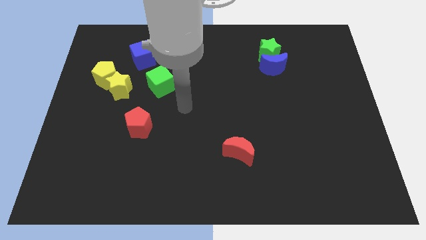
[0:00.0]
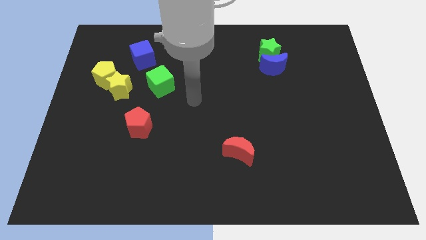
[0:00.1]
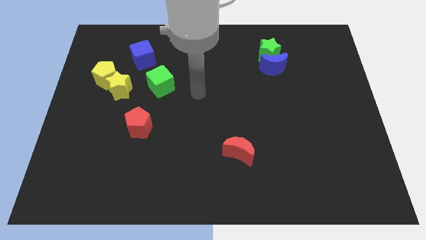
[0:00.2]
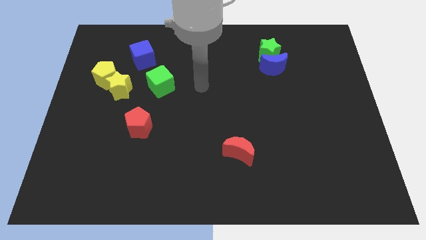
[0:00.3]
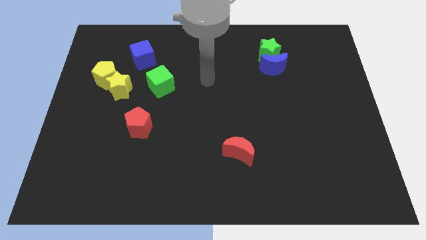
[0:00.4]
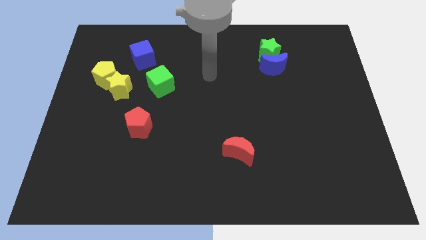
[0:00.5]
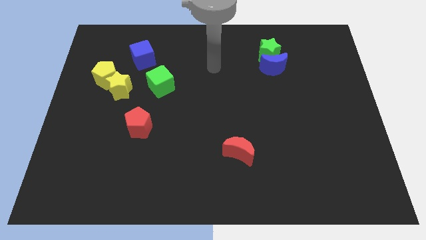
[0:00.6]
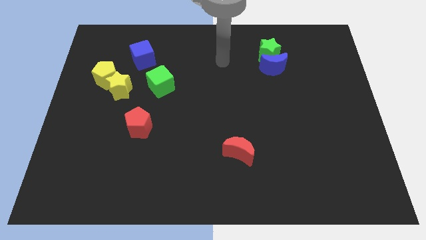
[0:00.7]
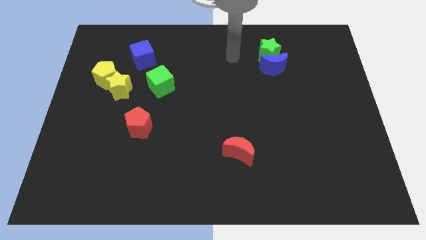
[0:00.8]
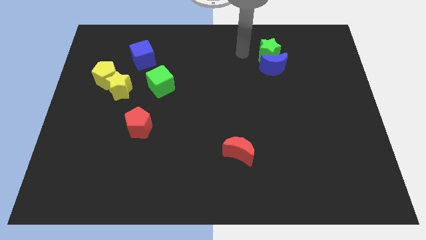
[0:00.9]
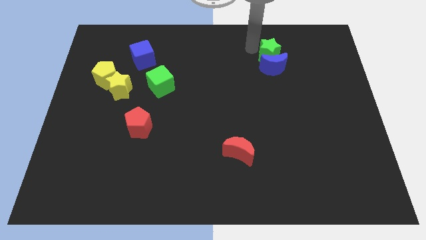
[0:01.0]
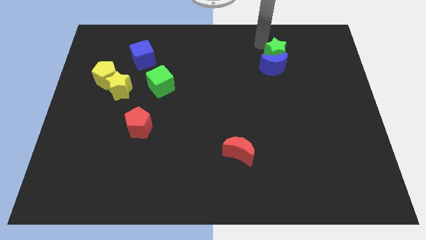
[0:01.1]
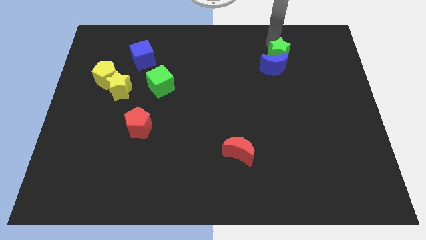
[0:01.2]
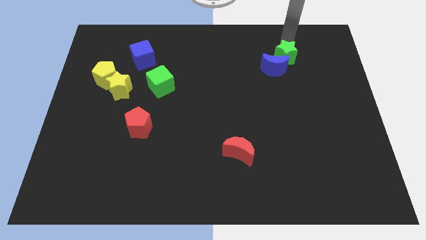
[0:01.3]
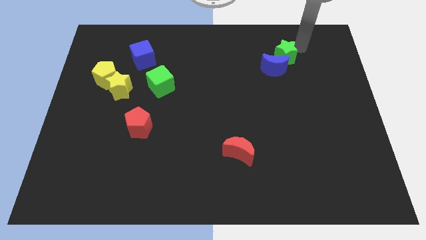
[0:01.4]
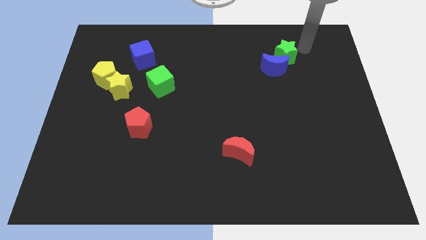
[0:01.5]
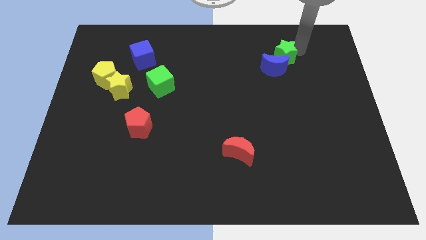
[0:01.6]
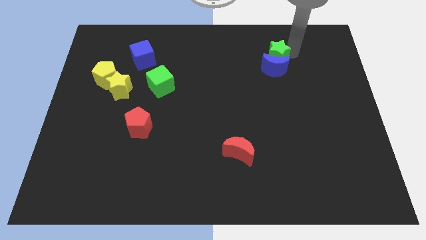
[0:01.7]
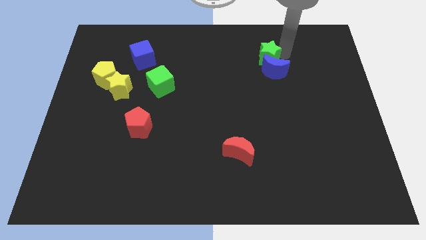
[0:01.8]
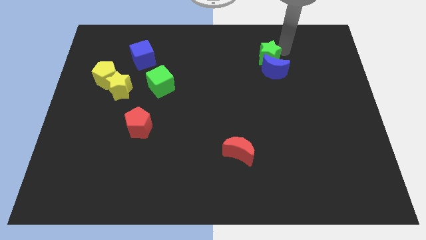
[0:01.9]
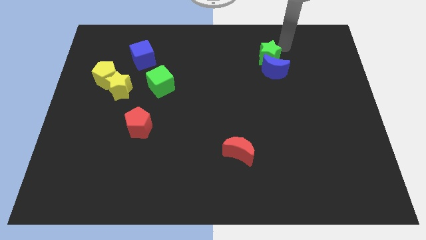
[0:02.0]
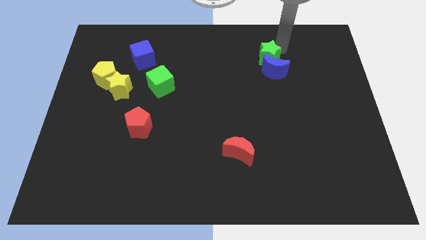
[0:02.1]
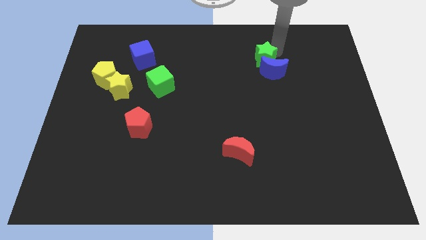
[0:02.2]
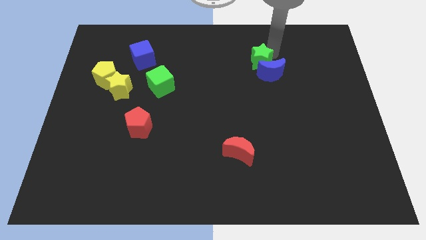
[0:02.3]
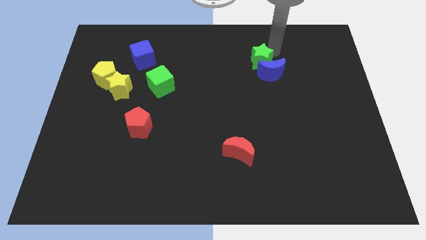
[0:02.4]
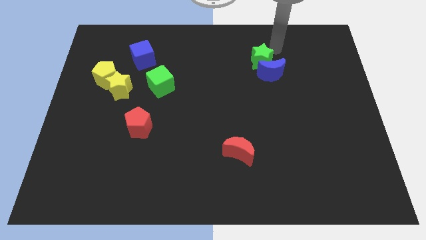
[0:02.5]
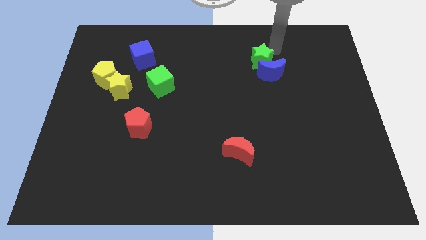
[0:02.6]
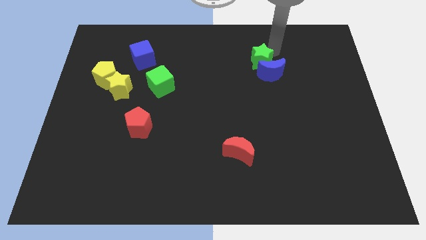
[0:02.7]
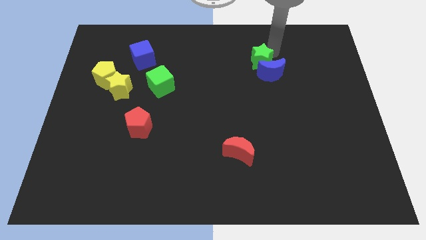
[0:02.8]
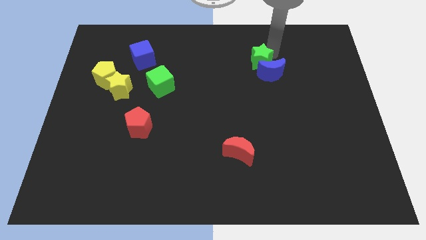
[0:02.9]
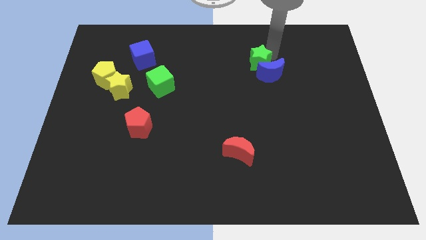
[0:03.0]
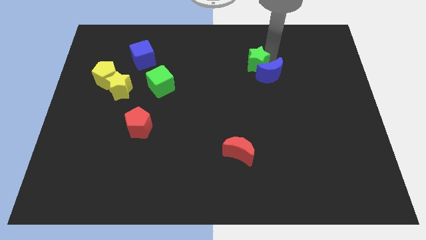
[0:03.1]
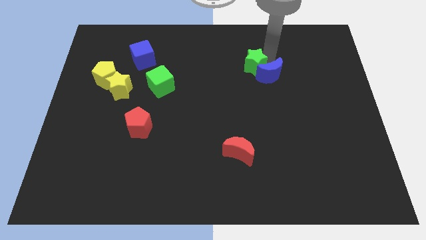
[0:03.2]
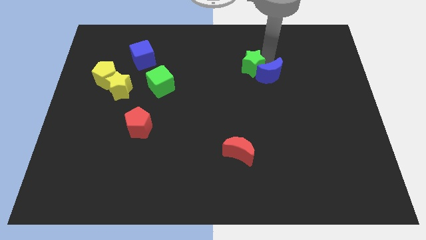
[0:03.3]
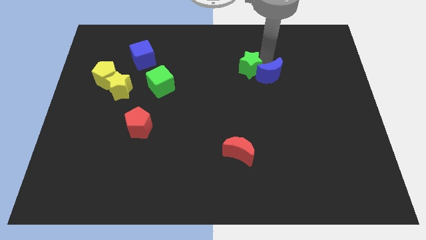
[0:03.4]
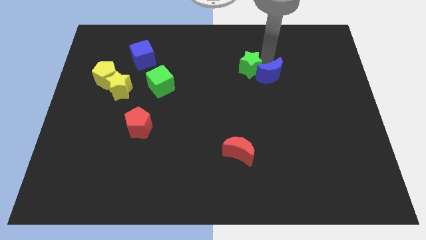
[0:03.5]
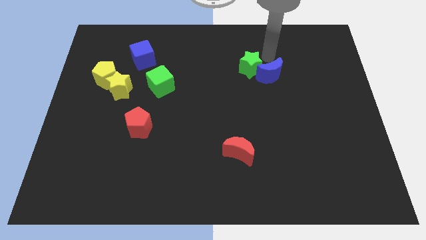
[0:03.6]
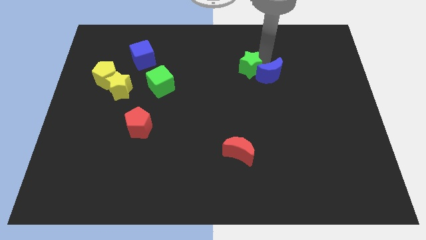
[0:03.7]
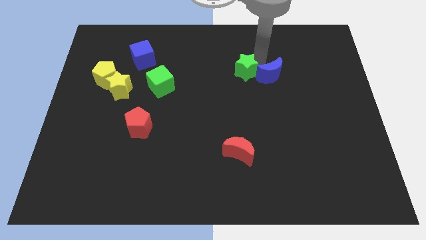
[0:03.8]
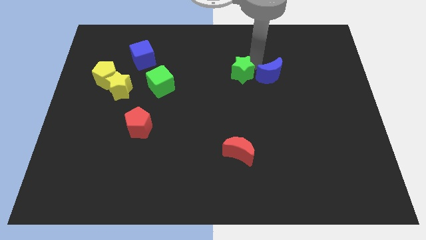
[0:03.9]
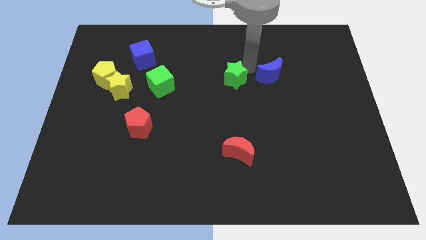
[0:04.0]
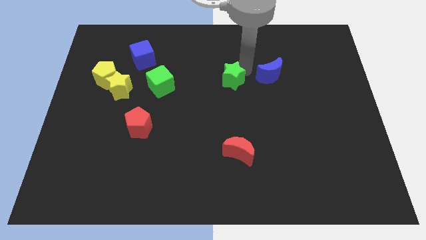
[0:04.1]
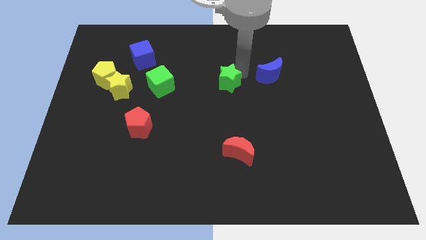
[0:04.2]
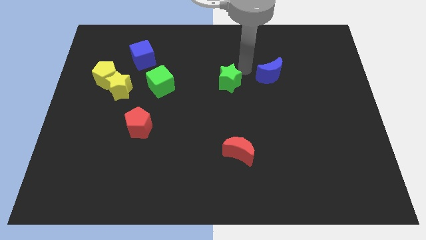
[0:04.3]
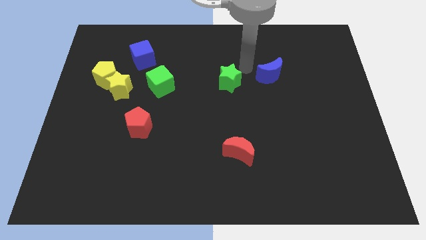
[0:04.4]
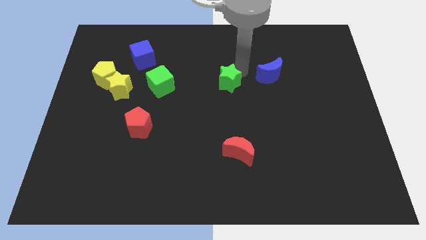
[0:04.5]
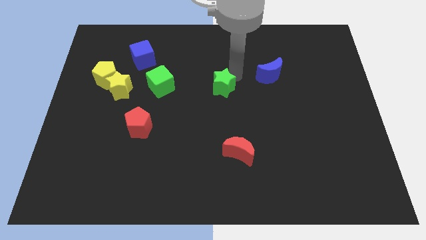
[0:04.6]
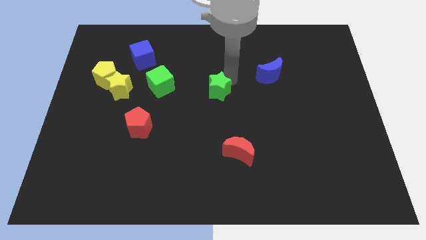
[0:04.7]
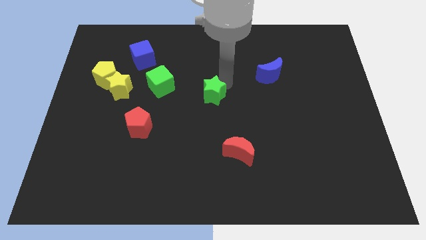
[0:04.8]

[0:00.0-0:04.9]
move the green star diagonally down and to the left

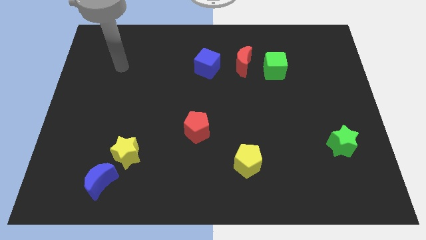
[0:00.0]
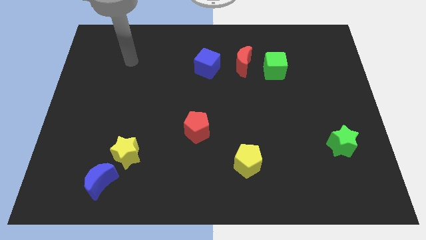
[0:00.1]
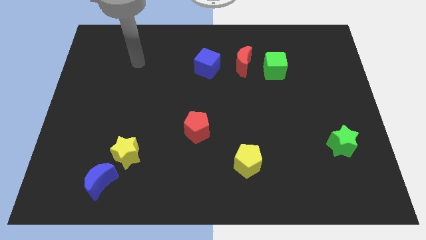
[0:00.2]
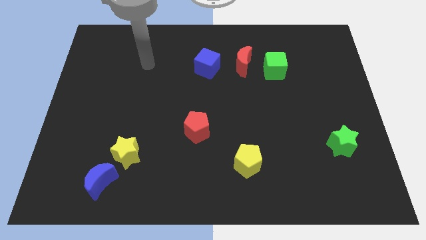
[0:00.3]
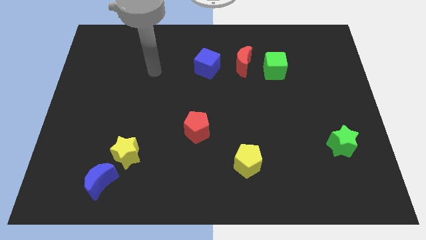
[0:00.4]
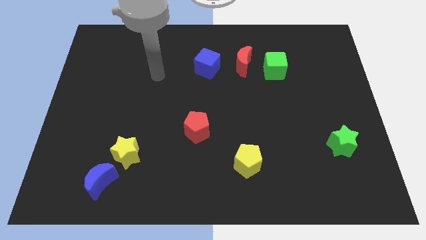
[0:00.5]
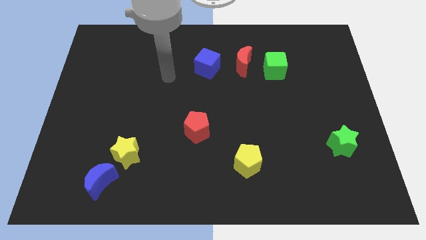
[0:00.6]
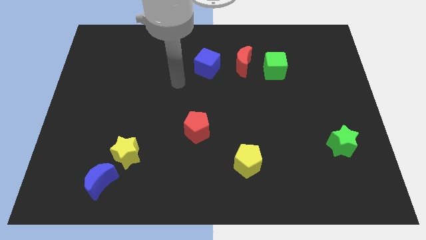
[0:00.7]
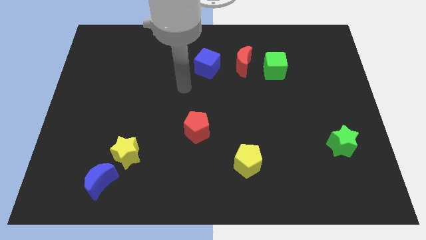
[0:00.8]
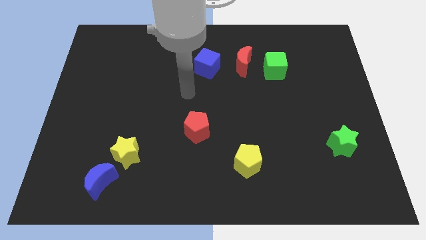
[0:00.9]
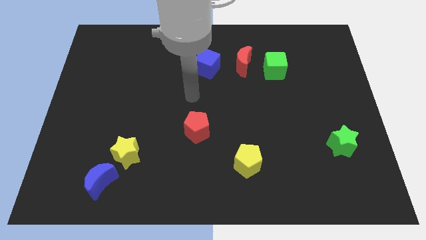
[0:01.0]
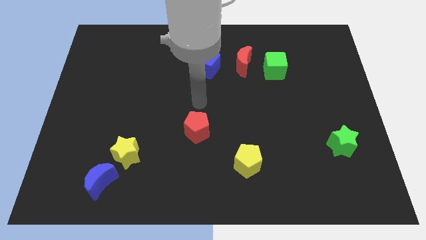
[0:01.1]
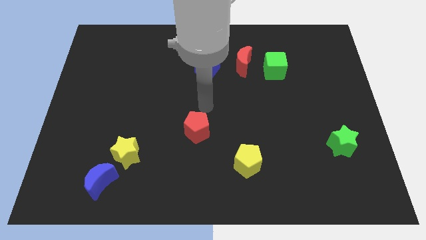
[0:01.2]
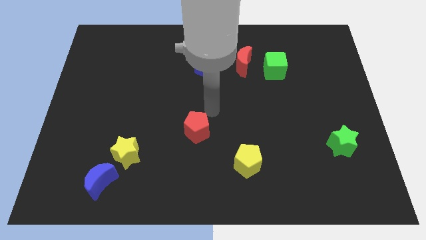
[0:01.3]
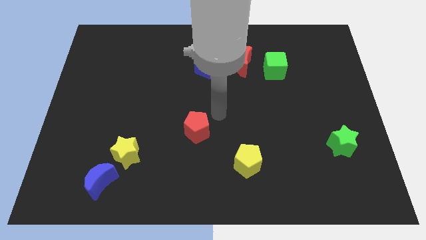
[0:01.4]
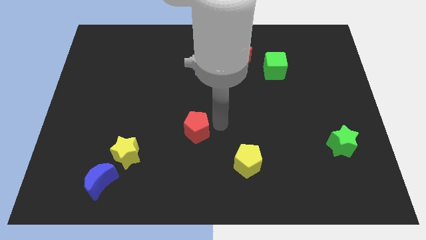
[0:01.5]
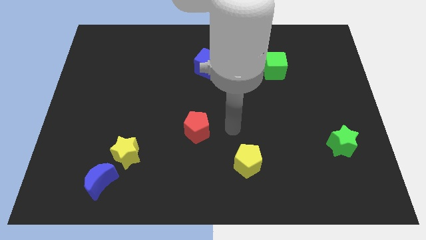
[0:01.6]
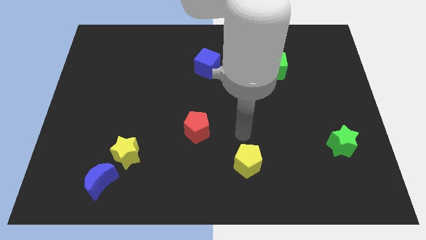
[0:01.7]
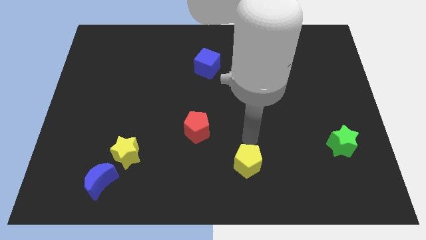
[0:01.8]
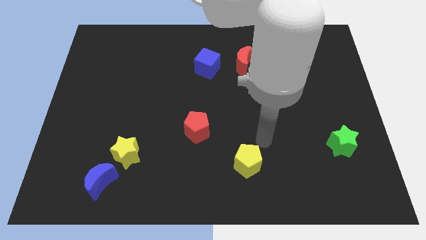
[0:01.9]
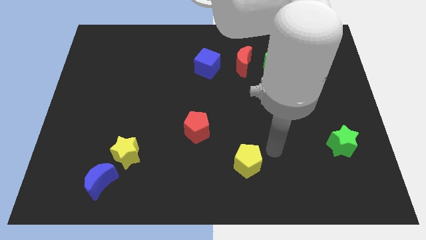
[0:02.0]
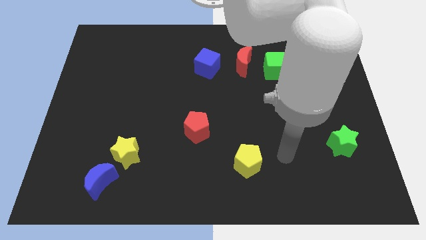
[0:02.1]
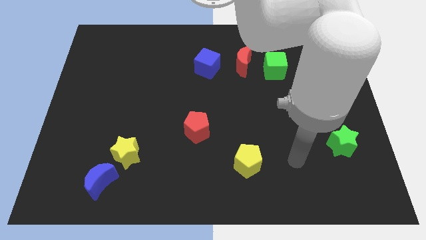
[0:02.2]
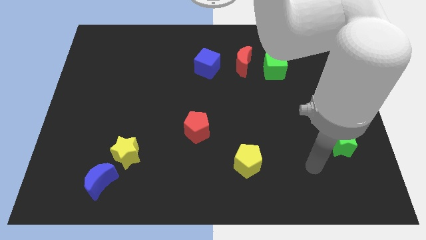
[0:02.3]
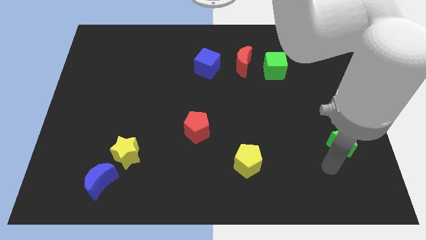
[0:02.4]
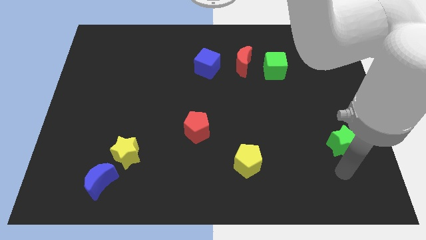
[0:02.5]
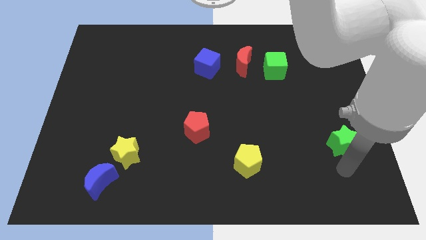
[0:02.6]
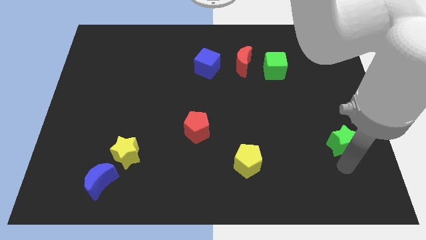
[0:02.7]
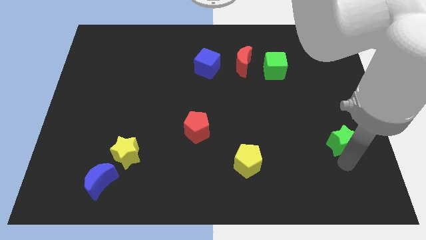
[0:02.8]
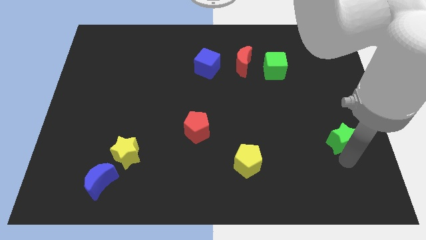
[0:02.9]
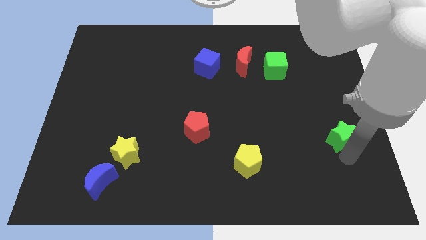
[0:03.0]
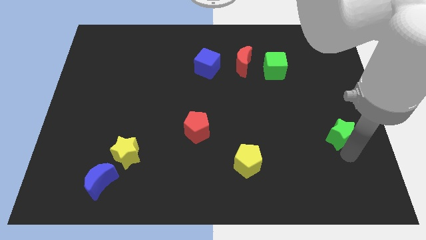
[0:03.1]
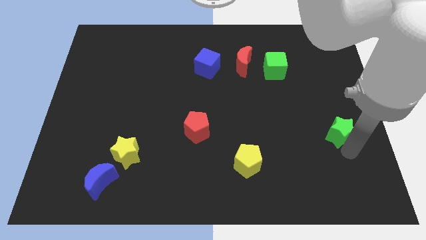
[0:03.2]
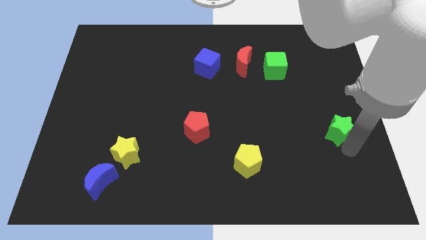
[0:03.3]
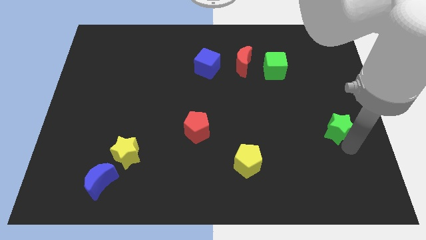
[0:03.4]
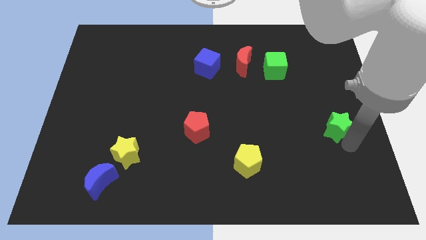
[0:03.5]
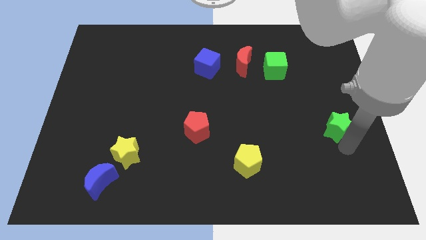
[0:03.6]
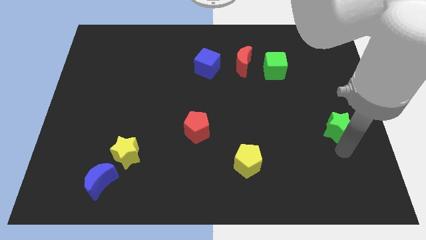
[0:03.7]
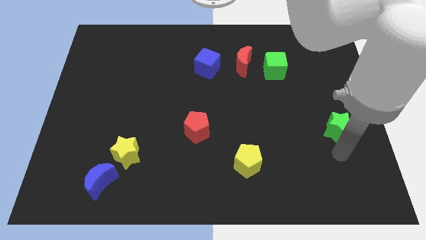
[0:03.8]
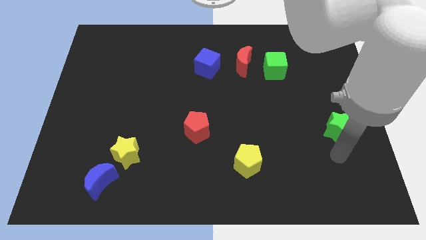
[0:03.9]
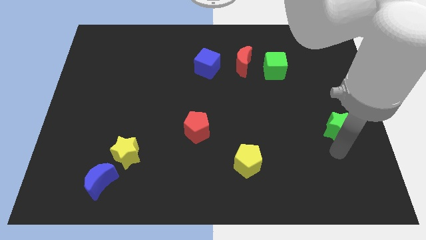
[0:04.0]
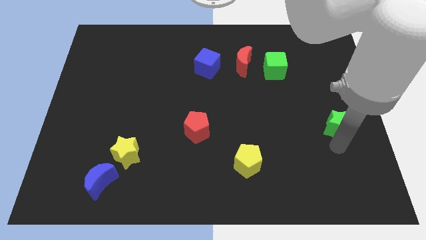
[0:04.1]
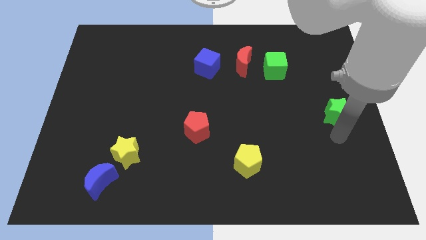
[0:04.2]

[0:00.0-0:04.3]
slightly push the green star up
